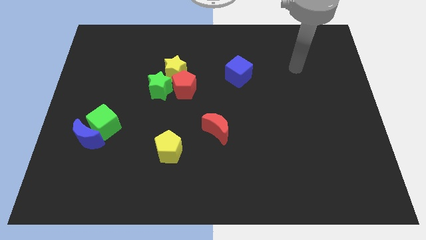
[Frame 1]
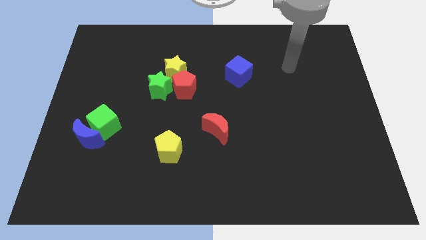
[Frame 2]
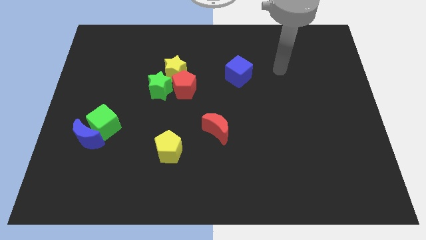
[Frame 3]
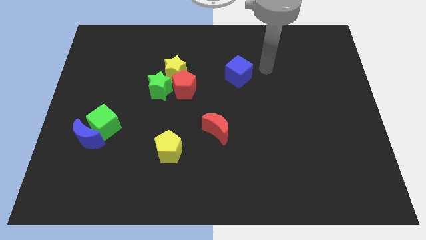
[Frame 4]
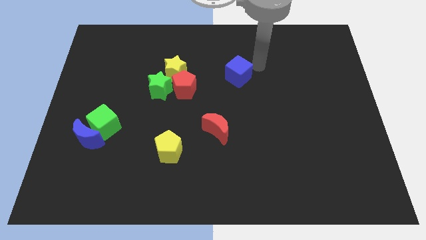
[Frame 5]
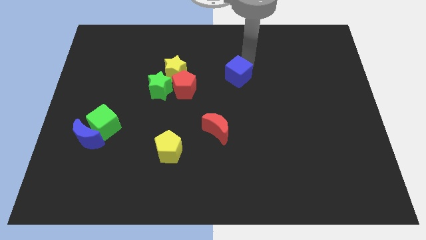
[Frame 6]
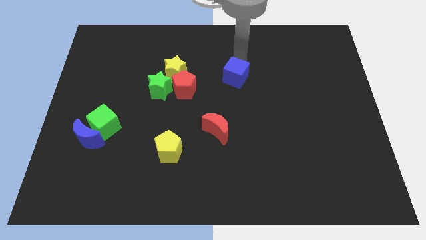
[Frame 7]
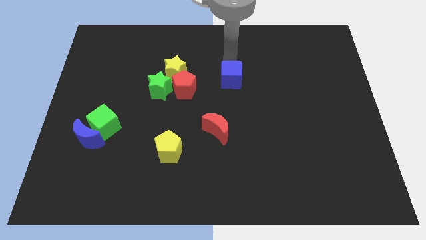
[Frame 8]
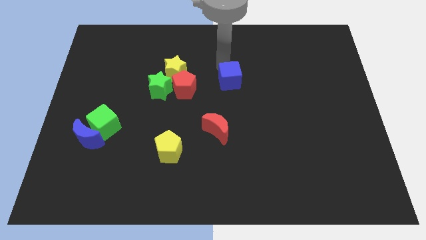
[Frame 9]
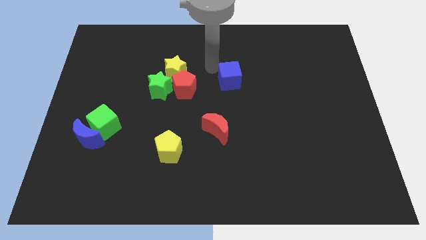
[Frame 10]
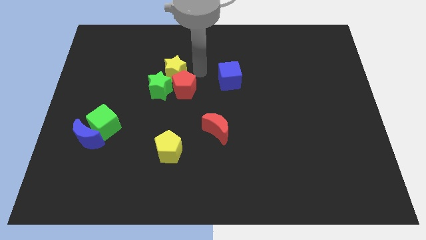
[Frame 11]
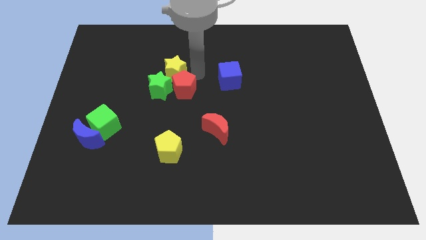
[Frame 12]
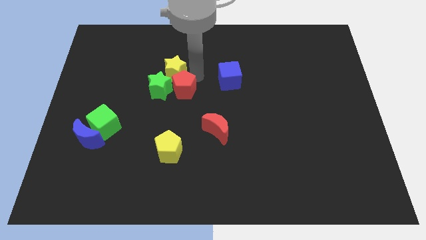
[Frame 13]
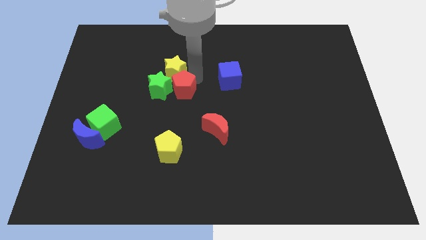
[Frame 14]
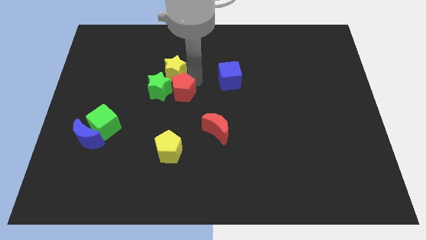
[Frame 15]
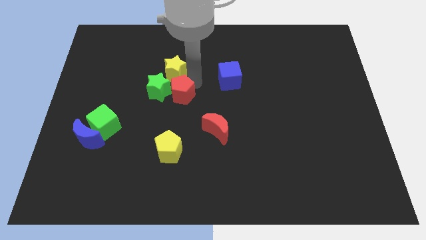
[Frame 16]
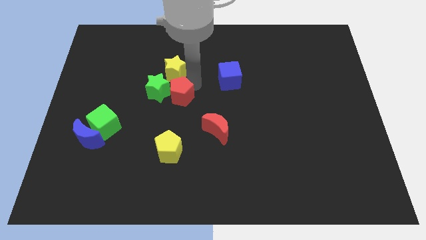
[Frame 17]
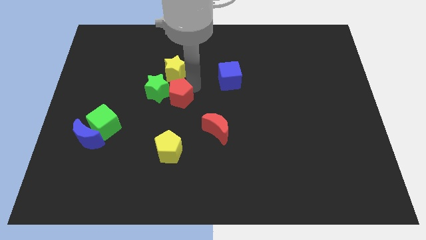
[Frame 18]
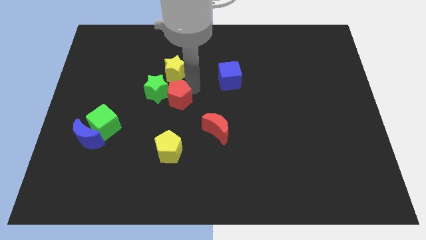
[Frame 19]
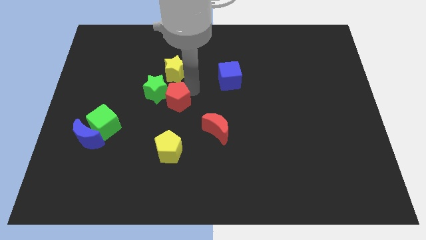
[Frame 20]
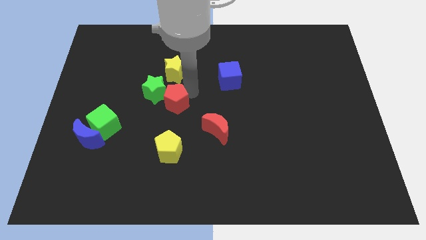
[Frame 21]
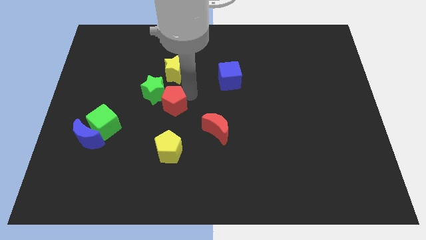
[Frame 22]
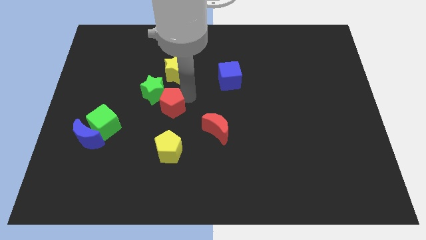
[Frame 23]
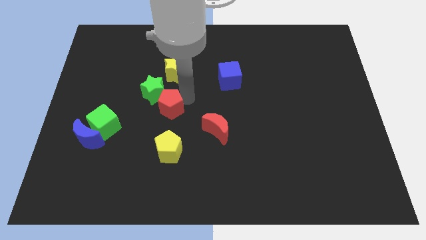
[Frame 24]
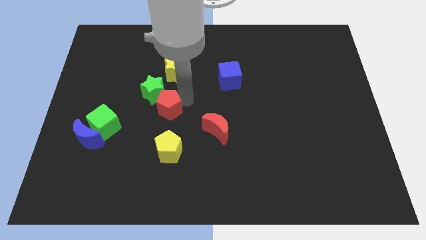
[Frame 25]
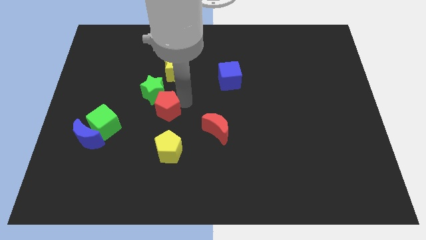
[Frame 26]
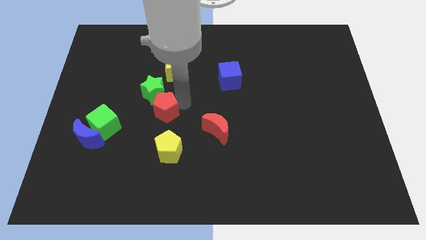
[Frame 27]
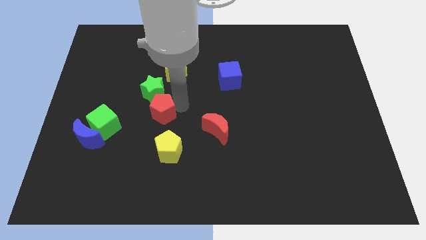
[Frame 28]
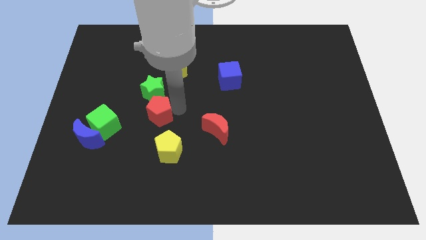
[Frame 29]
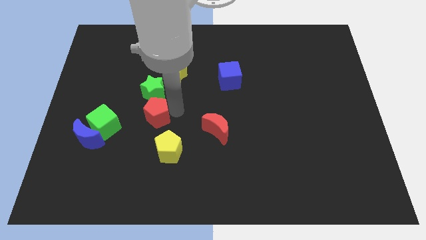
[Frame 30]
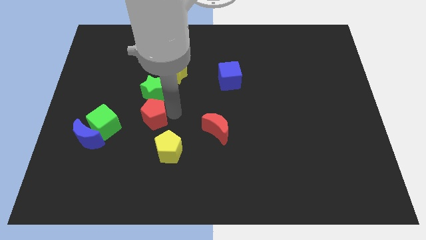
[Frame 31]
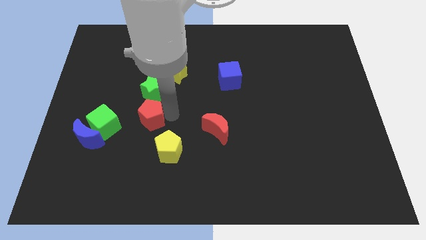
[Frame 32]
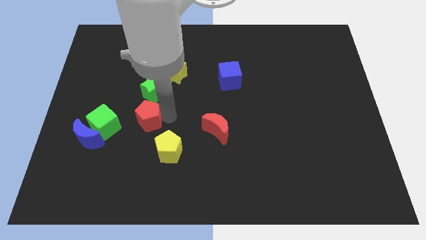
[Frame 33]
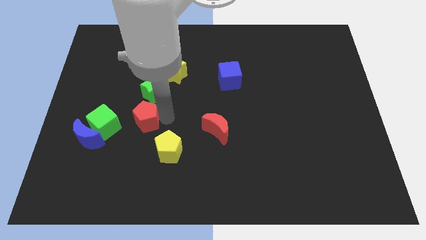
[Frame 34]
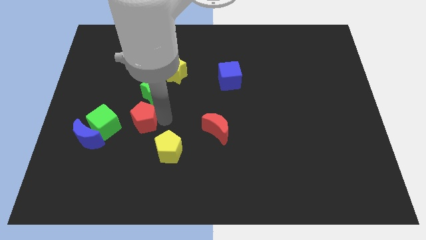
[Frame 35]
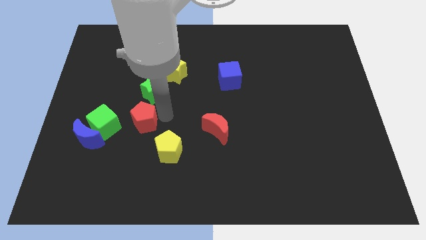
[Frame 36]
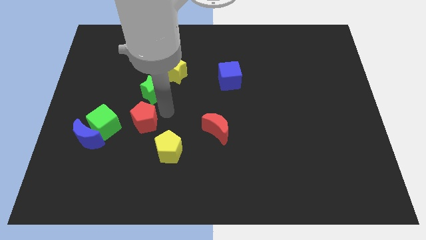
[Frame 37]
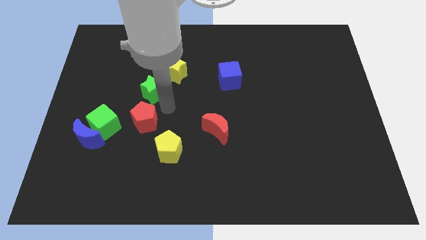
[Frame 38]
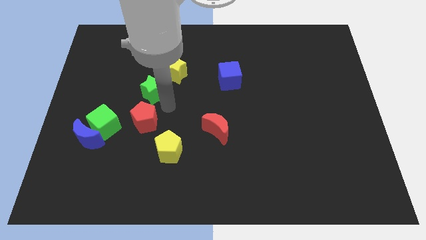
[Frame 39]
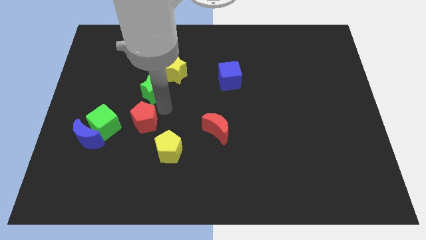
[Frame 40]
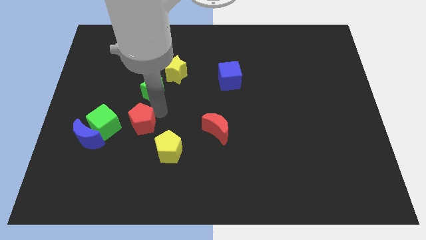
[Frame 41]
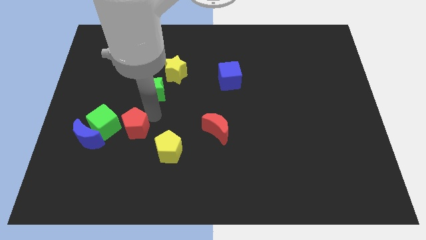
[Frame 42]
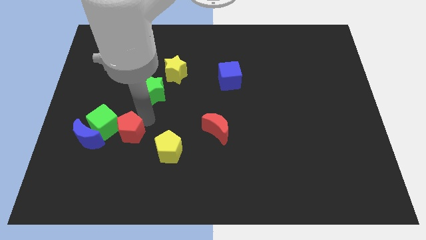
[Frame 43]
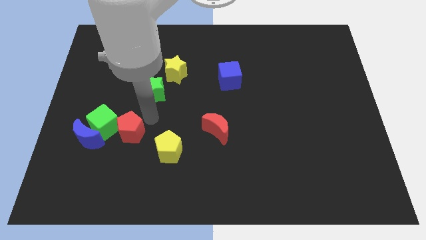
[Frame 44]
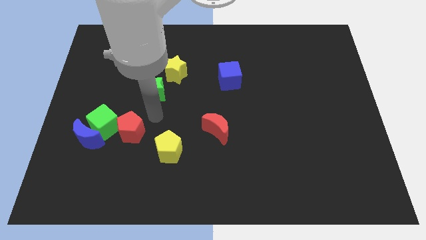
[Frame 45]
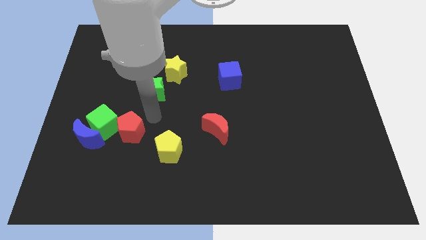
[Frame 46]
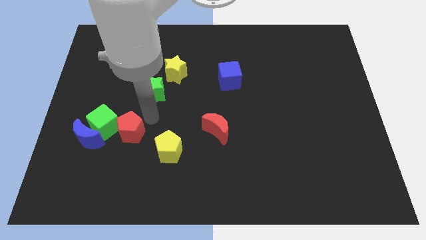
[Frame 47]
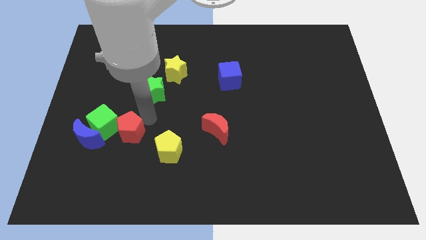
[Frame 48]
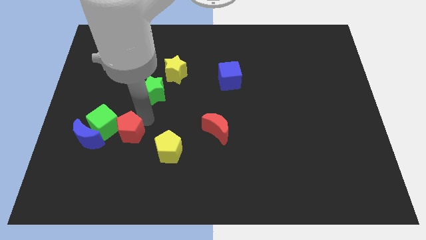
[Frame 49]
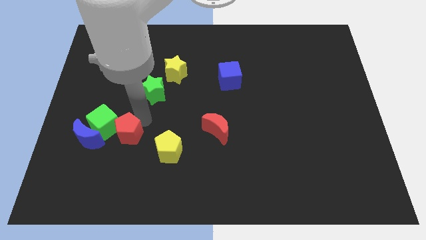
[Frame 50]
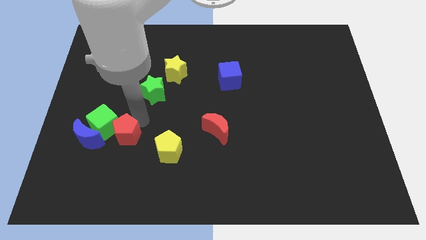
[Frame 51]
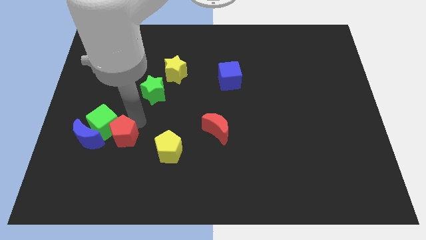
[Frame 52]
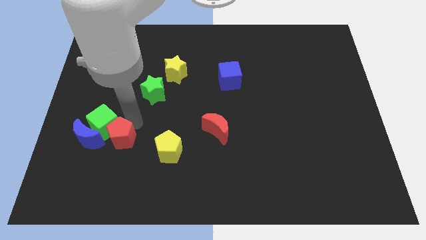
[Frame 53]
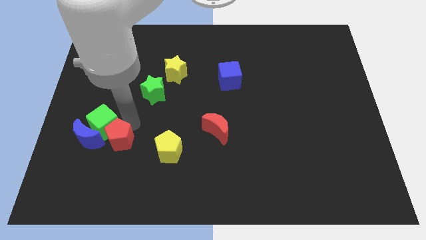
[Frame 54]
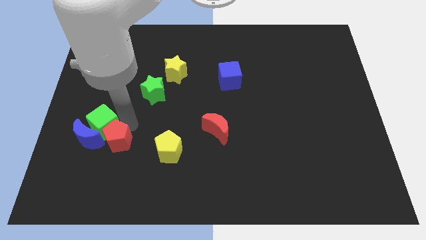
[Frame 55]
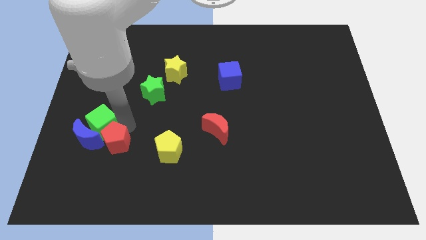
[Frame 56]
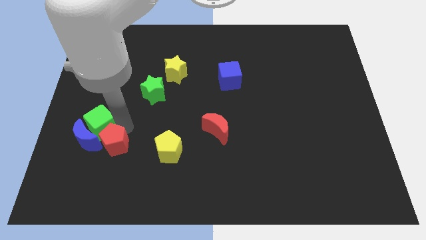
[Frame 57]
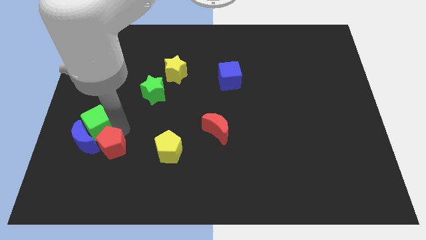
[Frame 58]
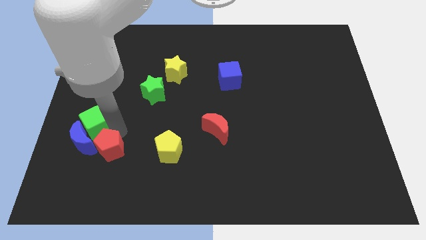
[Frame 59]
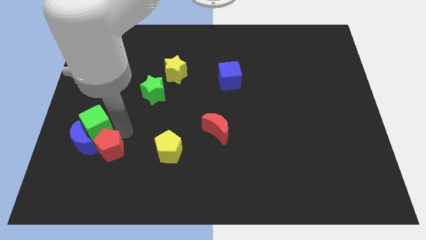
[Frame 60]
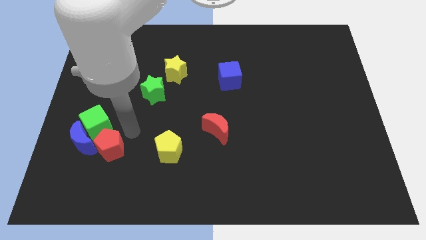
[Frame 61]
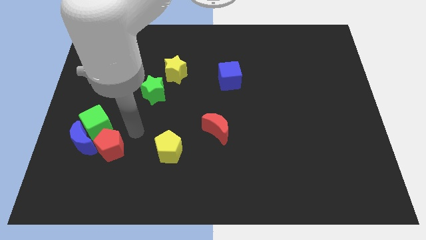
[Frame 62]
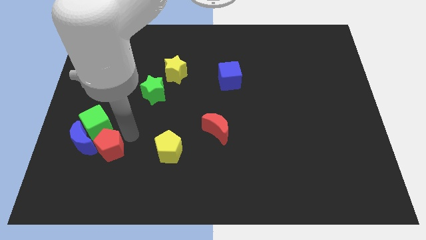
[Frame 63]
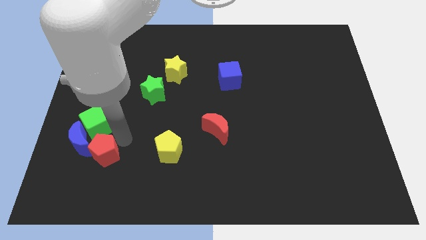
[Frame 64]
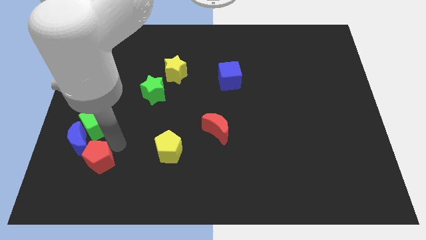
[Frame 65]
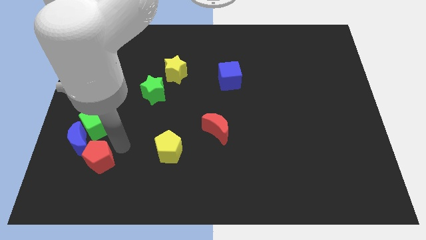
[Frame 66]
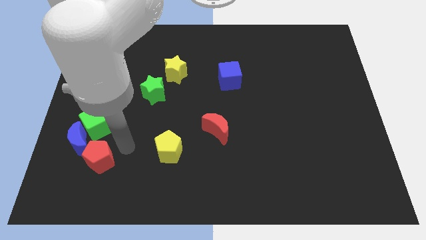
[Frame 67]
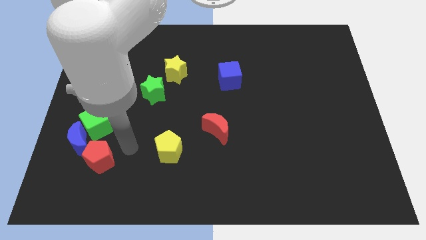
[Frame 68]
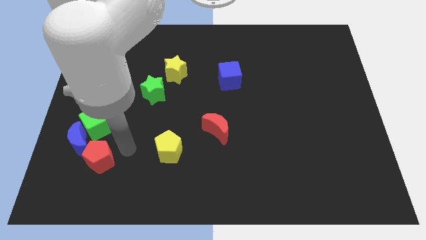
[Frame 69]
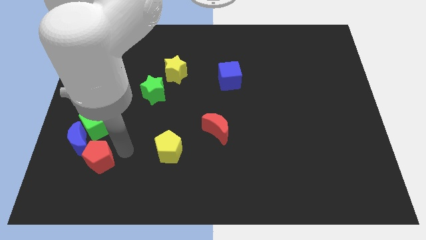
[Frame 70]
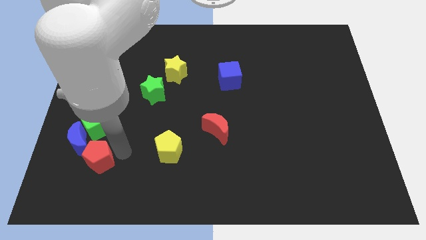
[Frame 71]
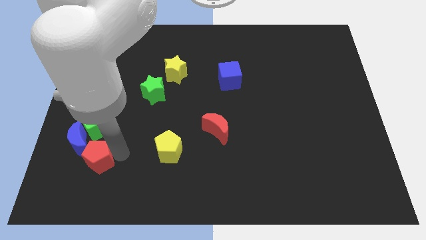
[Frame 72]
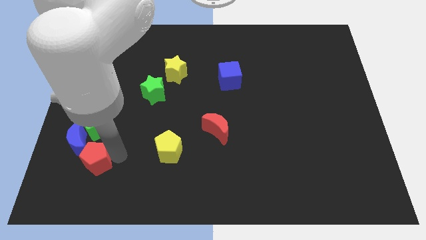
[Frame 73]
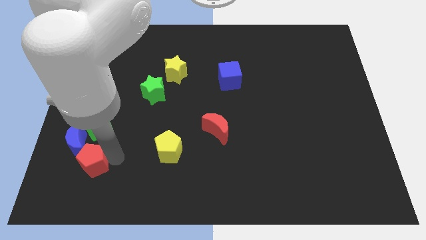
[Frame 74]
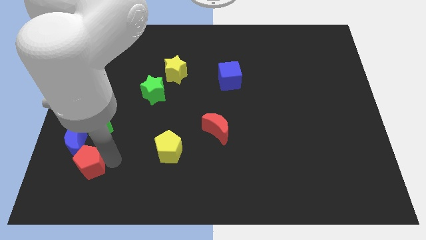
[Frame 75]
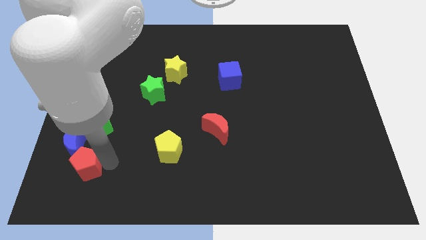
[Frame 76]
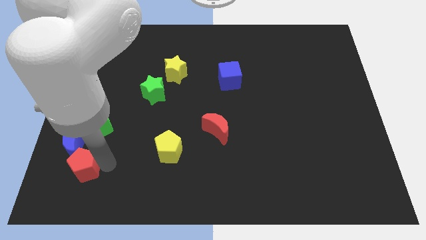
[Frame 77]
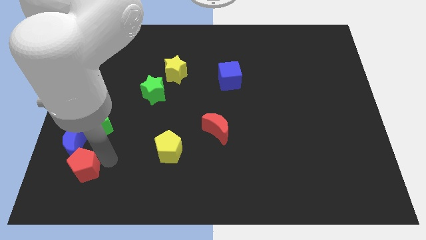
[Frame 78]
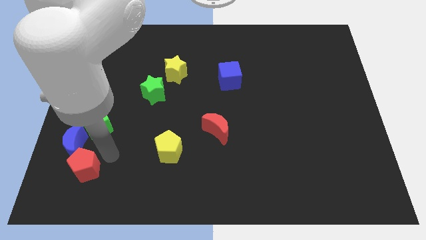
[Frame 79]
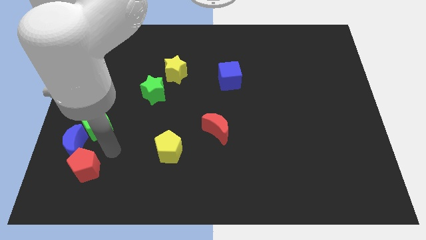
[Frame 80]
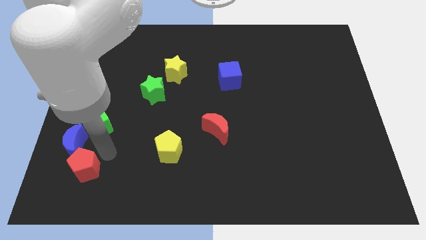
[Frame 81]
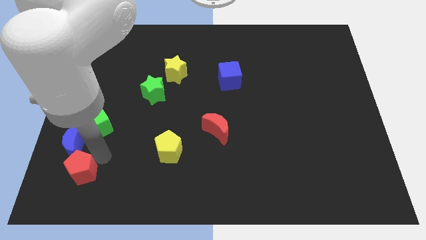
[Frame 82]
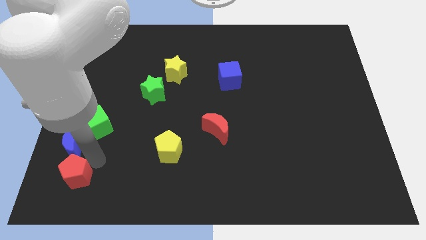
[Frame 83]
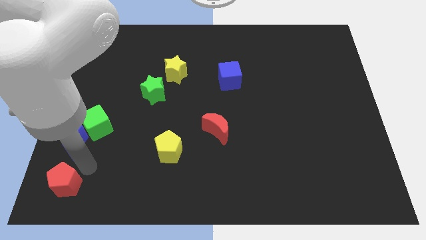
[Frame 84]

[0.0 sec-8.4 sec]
push the red pentagon to the lower left corner
